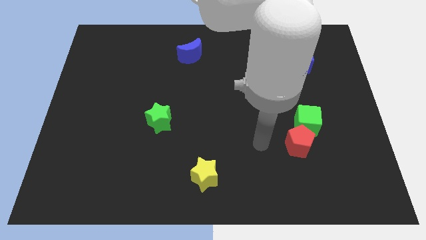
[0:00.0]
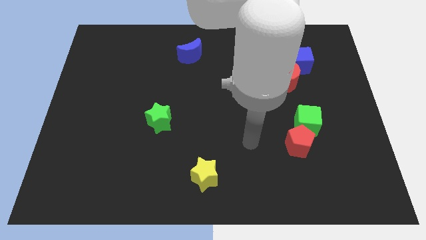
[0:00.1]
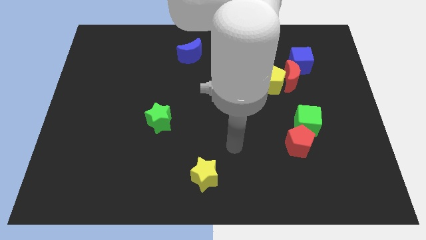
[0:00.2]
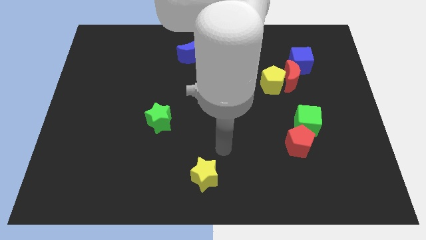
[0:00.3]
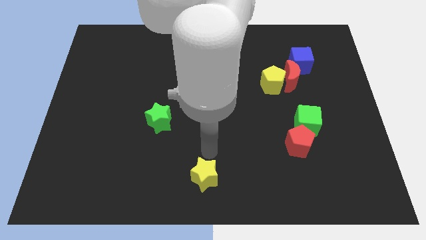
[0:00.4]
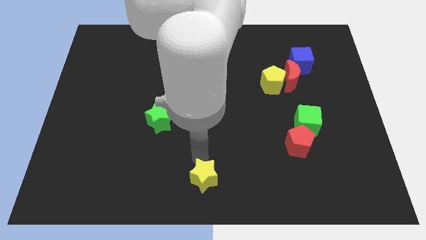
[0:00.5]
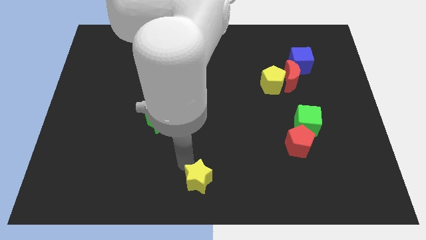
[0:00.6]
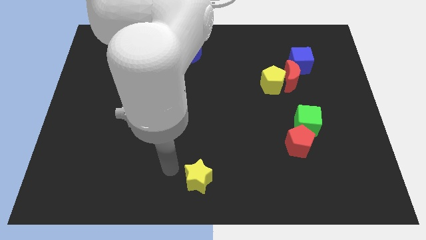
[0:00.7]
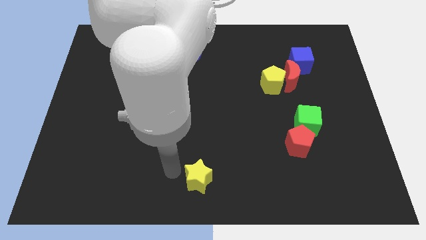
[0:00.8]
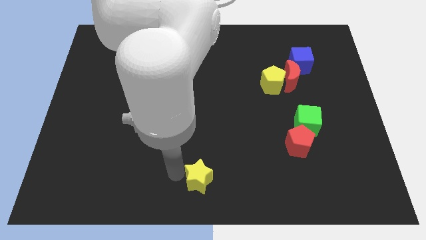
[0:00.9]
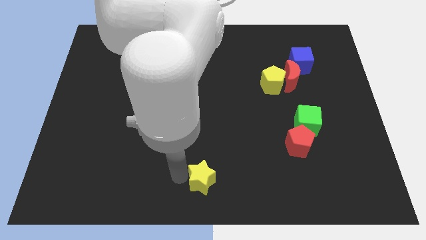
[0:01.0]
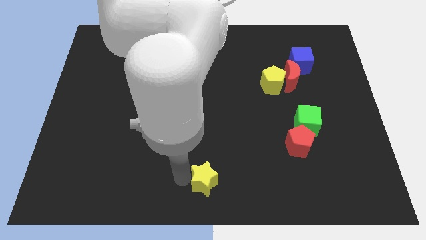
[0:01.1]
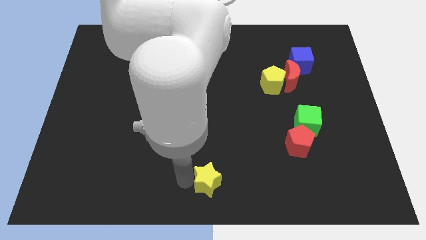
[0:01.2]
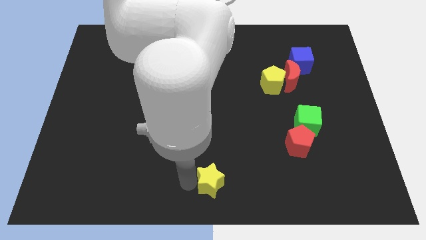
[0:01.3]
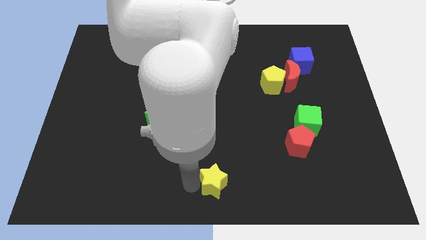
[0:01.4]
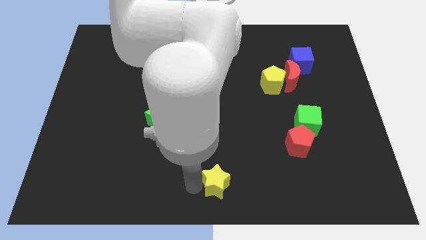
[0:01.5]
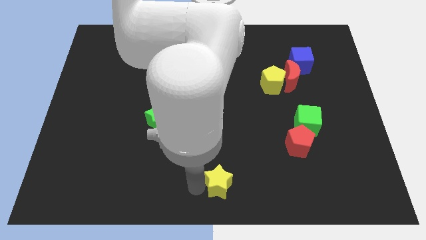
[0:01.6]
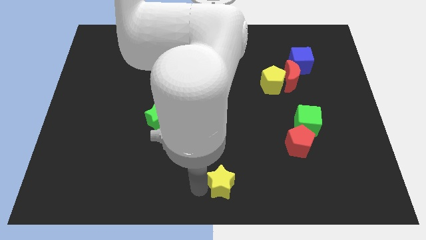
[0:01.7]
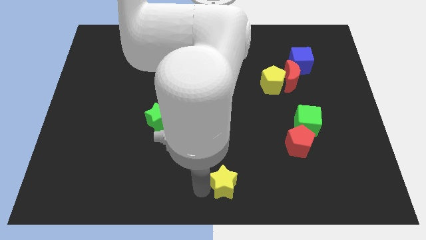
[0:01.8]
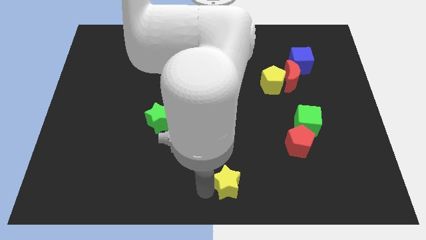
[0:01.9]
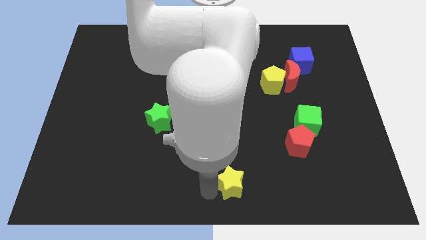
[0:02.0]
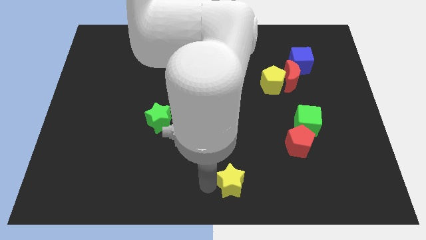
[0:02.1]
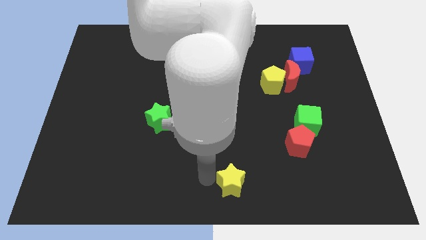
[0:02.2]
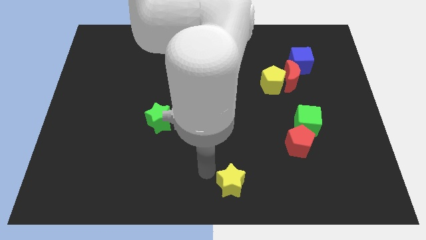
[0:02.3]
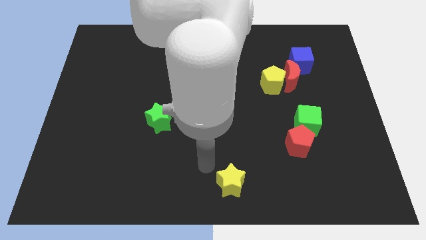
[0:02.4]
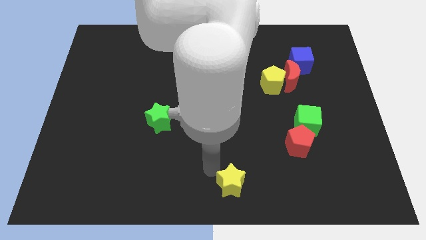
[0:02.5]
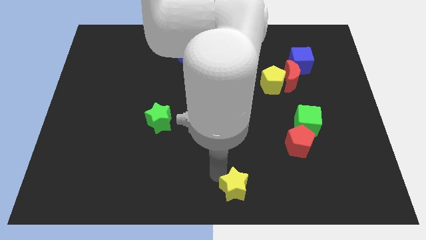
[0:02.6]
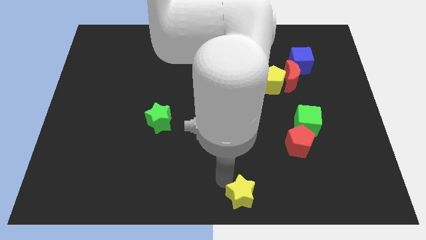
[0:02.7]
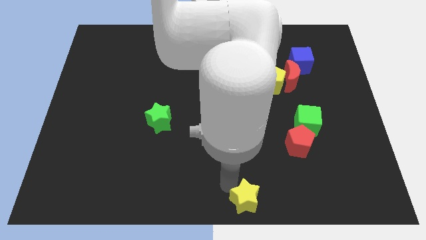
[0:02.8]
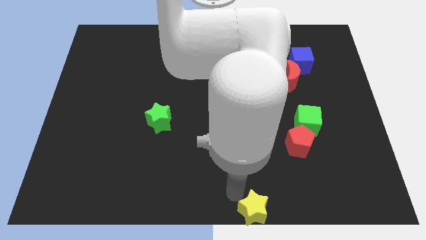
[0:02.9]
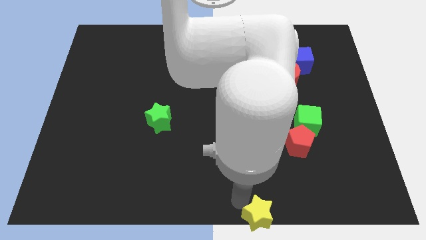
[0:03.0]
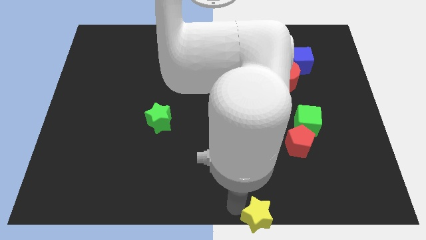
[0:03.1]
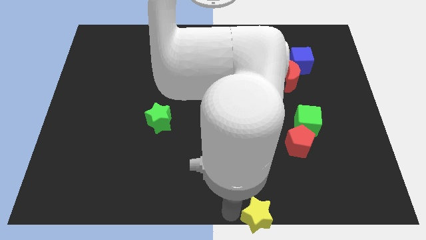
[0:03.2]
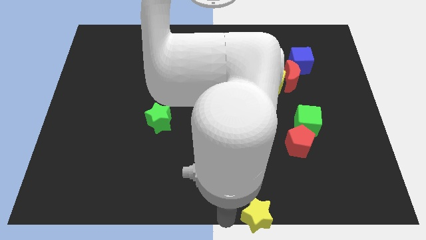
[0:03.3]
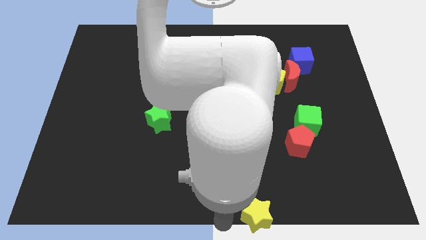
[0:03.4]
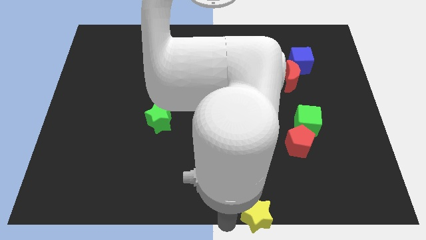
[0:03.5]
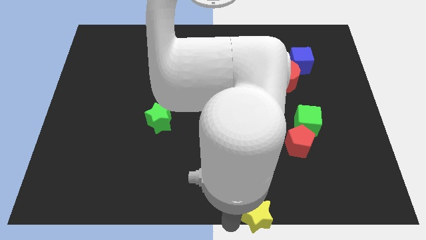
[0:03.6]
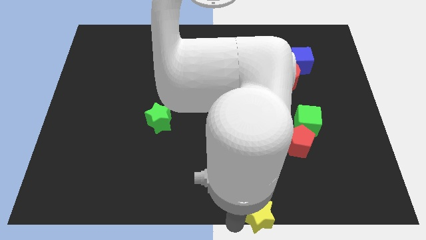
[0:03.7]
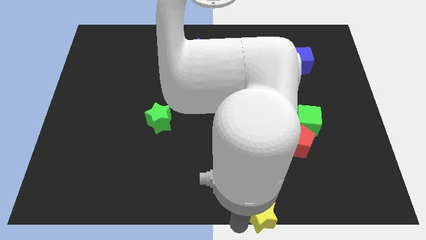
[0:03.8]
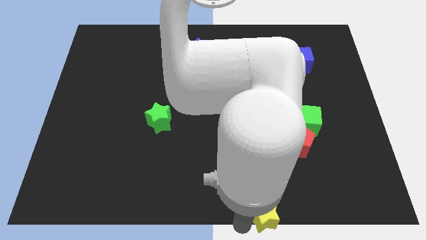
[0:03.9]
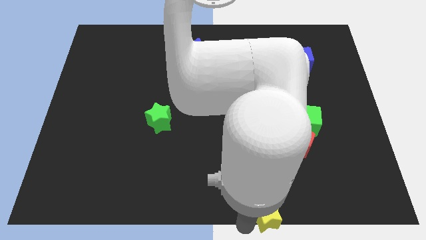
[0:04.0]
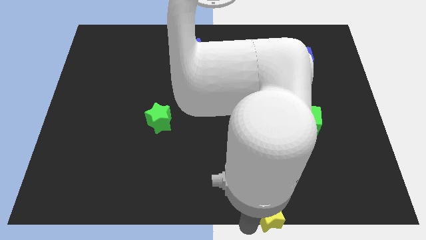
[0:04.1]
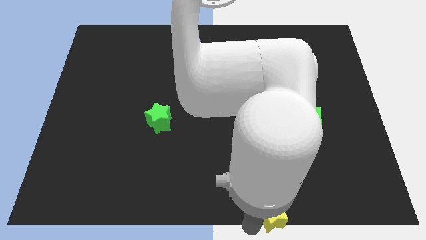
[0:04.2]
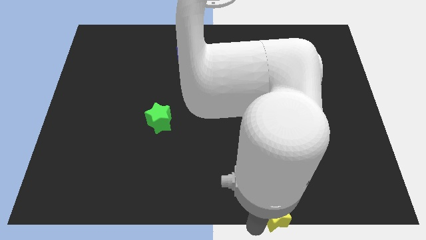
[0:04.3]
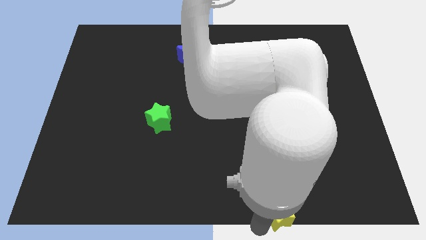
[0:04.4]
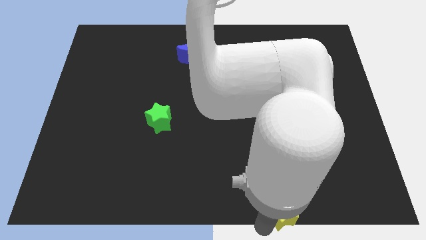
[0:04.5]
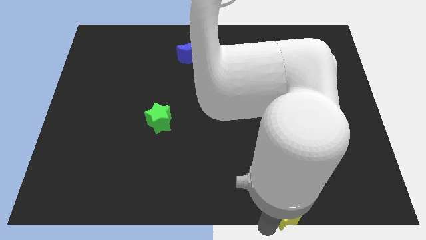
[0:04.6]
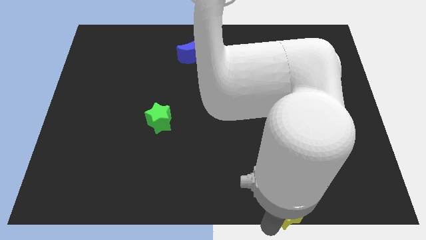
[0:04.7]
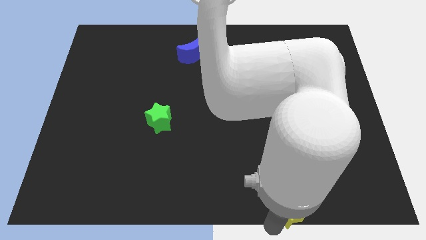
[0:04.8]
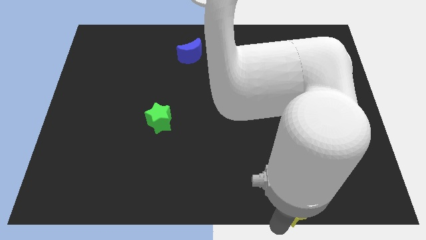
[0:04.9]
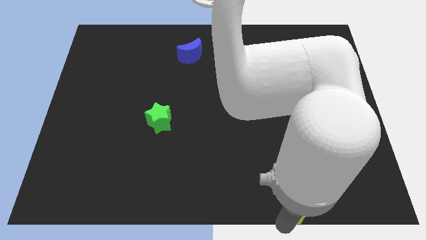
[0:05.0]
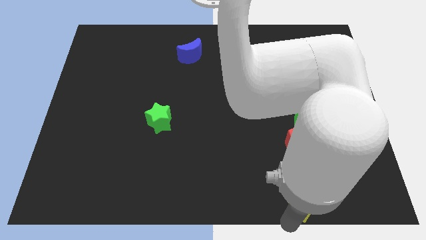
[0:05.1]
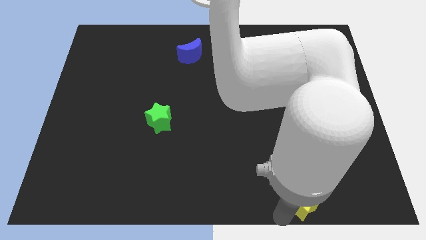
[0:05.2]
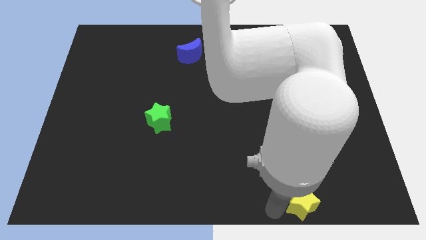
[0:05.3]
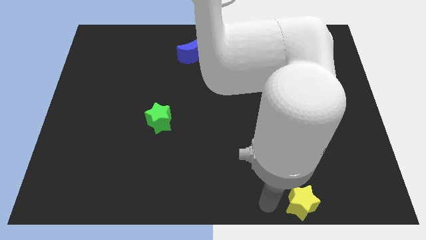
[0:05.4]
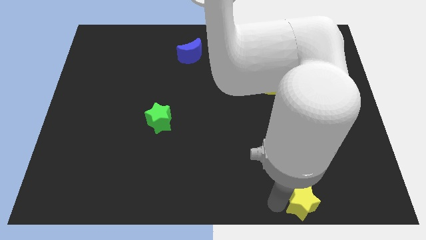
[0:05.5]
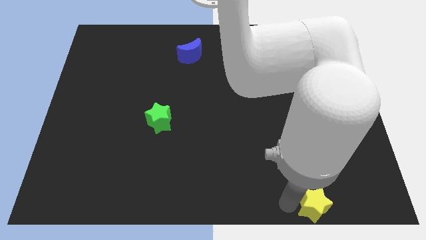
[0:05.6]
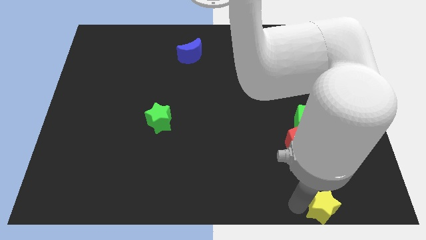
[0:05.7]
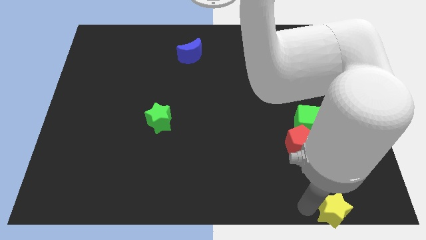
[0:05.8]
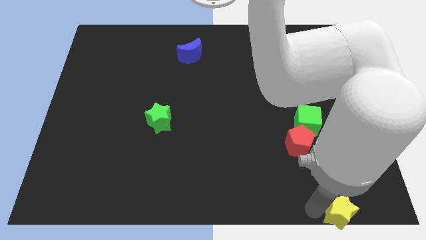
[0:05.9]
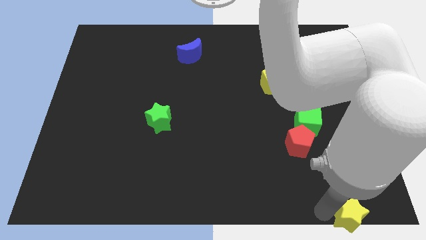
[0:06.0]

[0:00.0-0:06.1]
slide the yellow star to the bottom right
